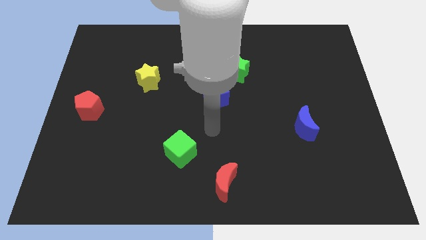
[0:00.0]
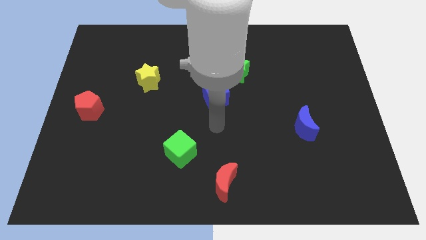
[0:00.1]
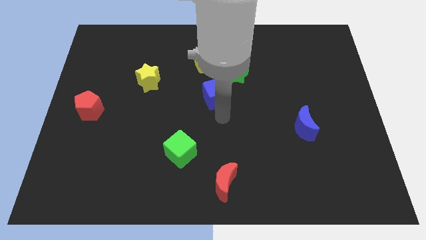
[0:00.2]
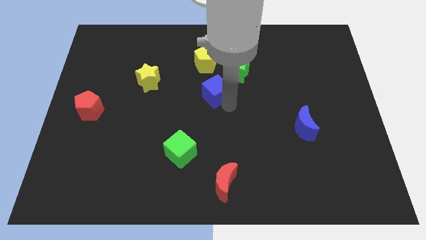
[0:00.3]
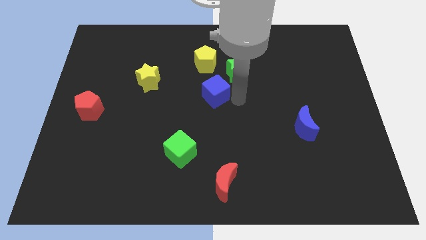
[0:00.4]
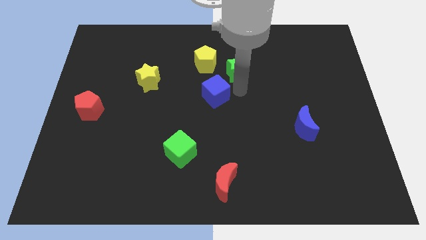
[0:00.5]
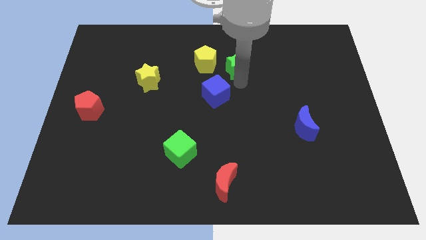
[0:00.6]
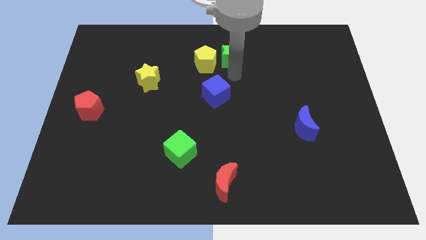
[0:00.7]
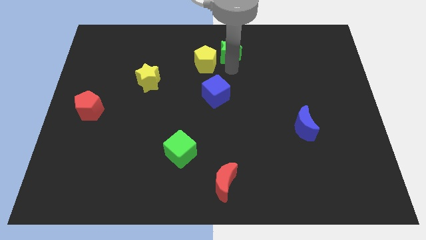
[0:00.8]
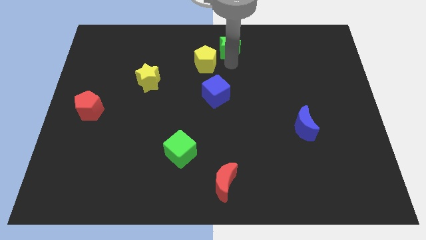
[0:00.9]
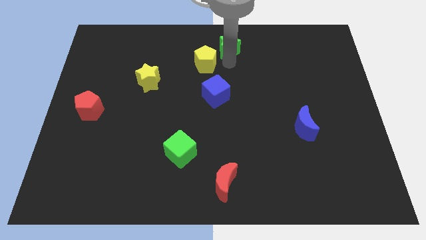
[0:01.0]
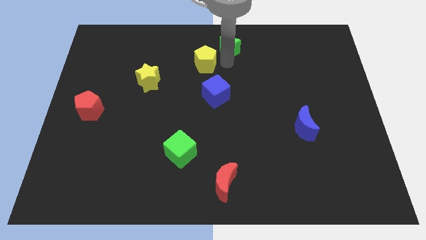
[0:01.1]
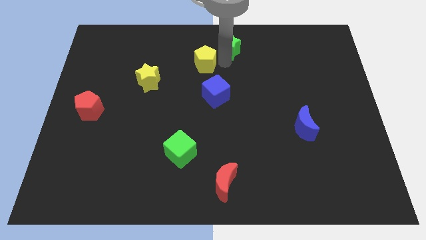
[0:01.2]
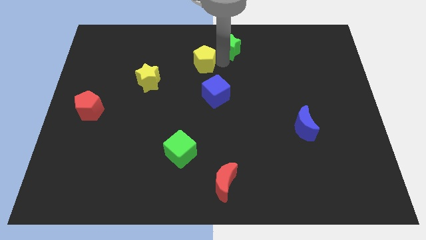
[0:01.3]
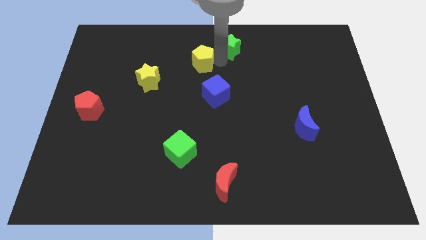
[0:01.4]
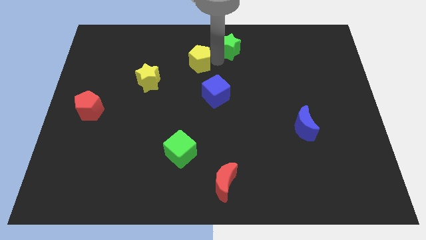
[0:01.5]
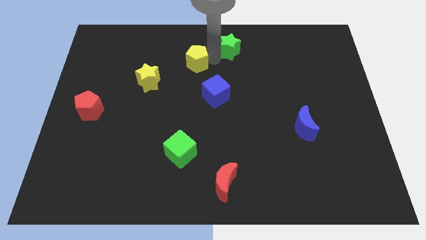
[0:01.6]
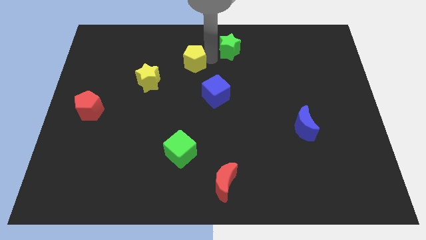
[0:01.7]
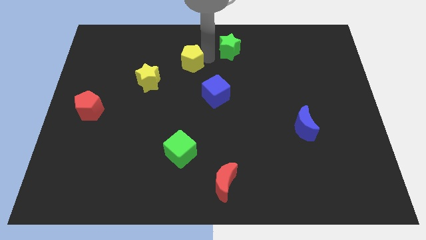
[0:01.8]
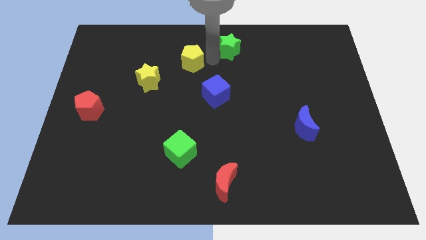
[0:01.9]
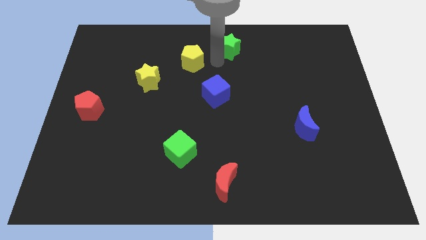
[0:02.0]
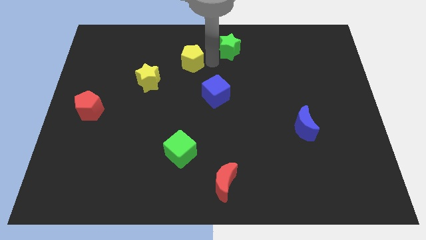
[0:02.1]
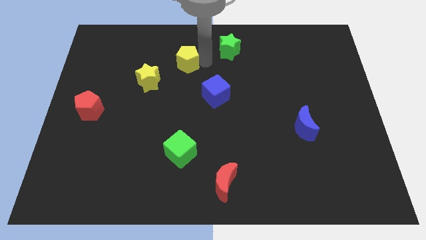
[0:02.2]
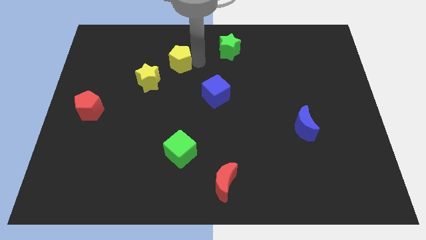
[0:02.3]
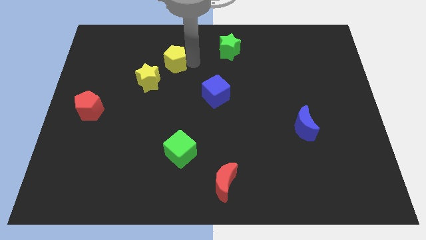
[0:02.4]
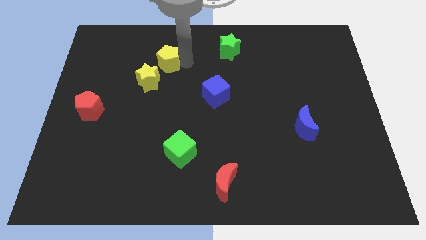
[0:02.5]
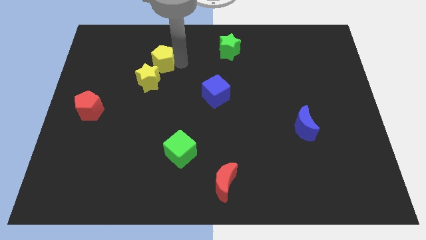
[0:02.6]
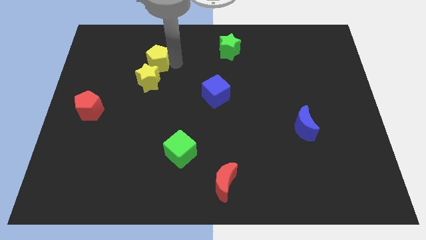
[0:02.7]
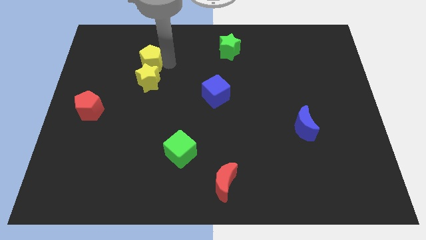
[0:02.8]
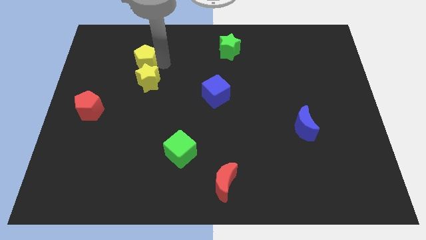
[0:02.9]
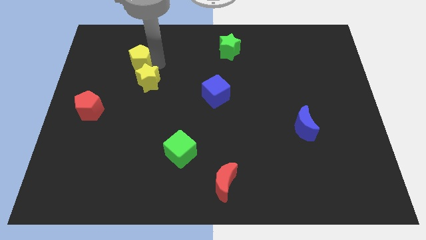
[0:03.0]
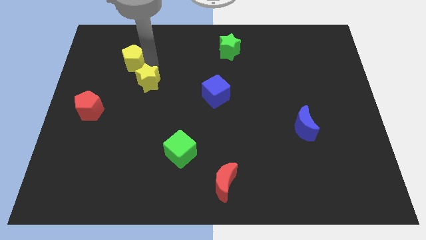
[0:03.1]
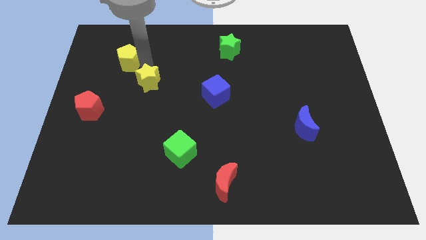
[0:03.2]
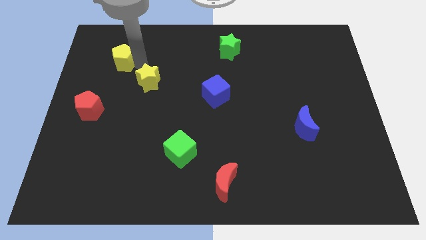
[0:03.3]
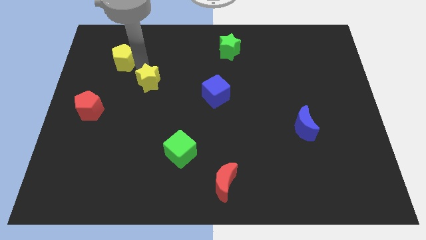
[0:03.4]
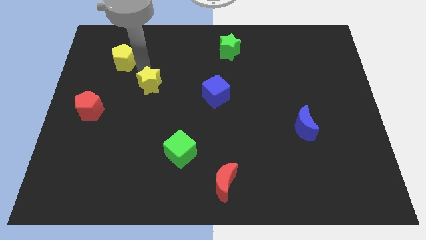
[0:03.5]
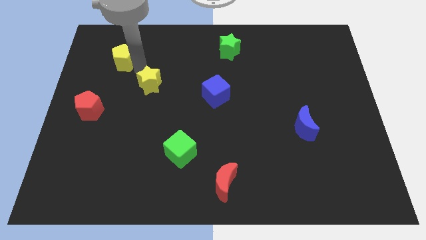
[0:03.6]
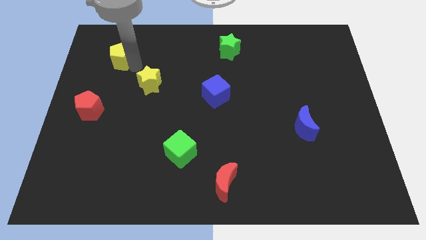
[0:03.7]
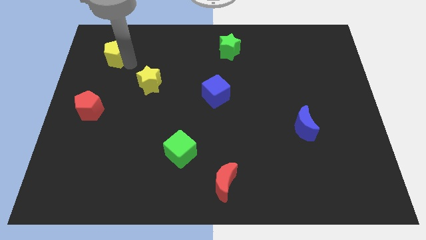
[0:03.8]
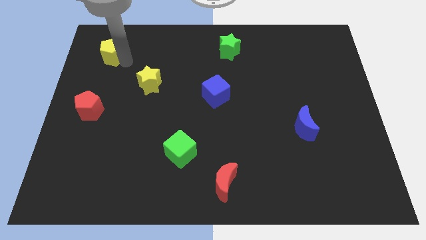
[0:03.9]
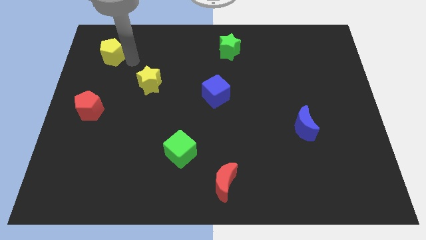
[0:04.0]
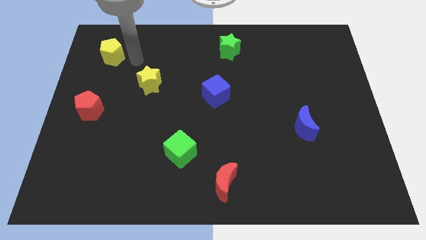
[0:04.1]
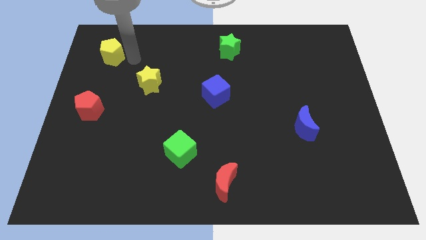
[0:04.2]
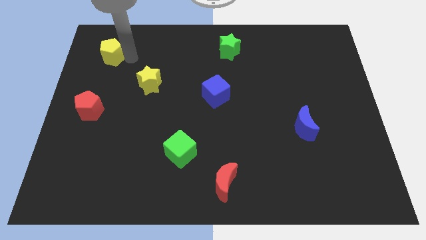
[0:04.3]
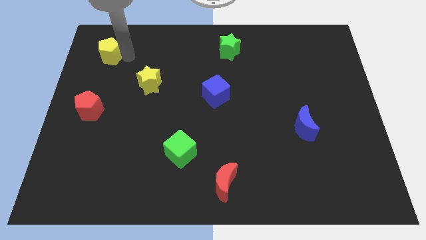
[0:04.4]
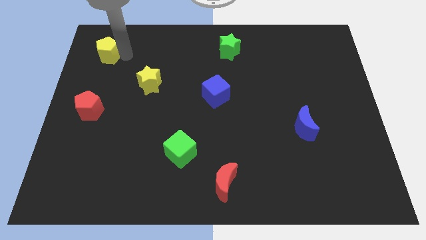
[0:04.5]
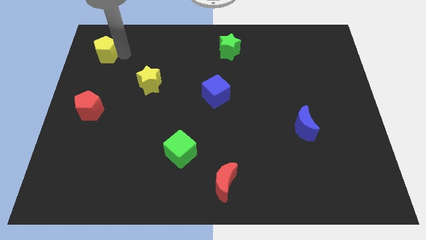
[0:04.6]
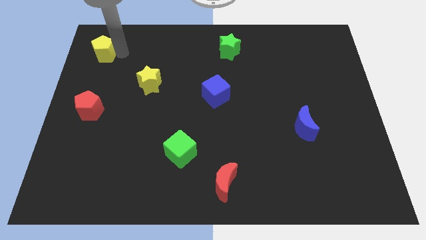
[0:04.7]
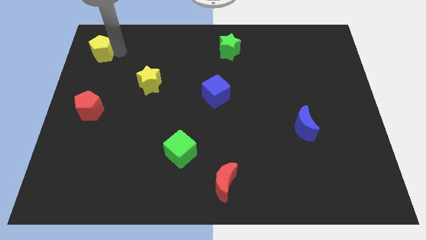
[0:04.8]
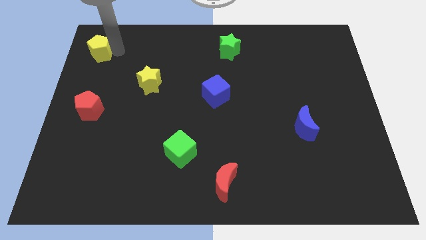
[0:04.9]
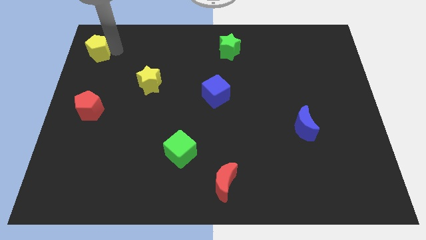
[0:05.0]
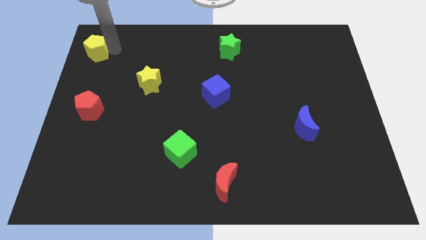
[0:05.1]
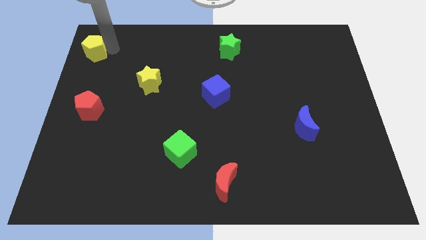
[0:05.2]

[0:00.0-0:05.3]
push the yellow pentagon to the top left of the board

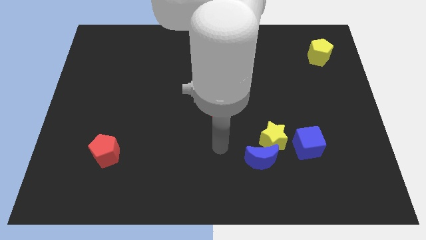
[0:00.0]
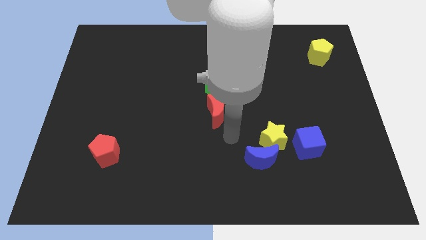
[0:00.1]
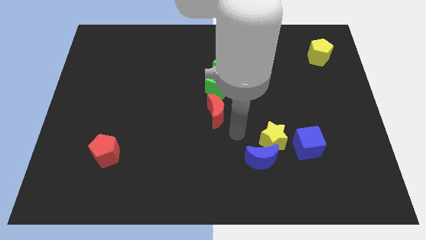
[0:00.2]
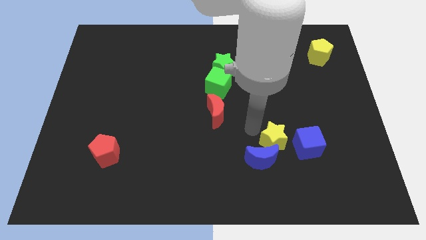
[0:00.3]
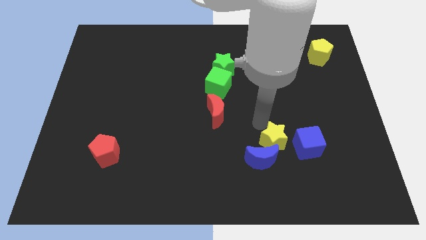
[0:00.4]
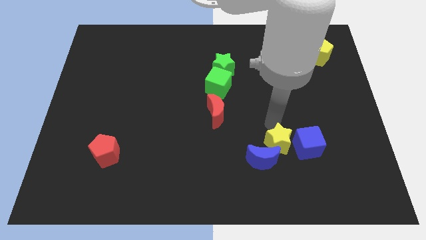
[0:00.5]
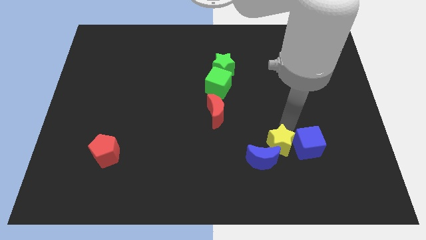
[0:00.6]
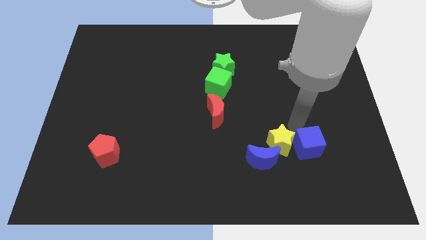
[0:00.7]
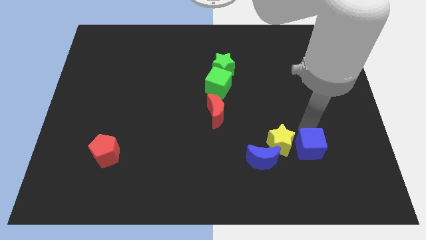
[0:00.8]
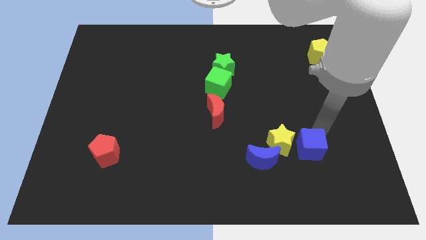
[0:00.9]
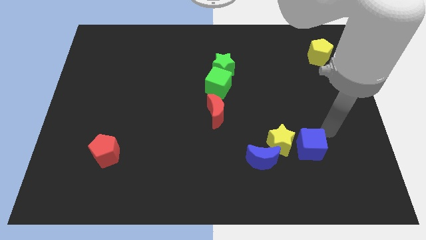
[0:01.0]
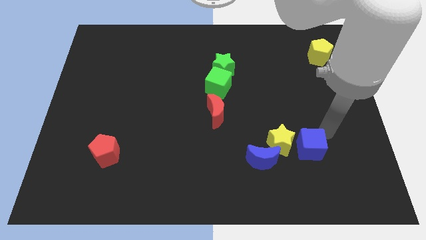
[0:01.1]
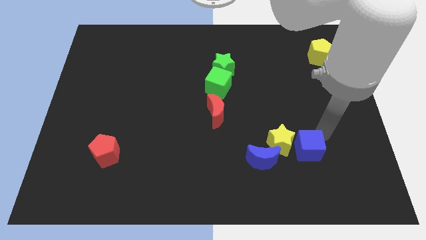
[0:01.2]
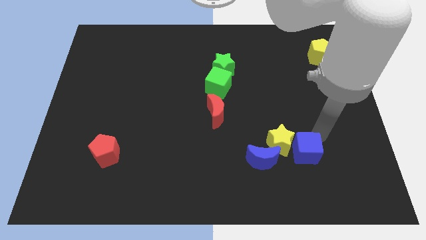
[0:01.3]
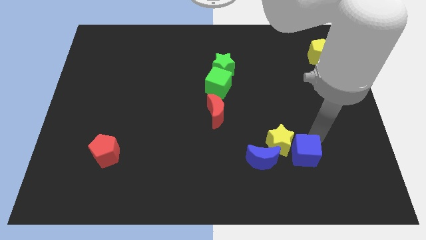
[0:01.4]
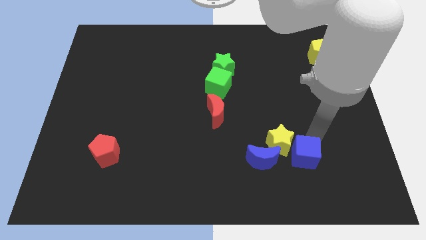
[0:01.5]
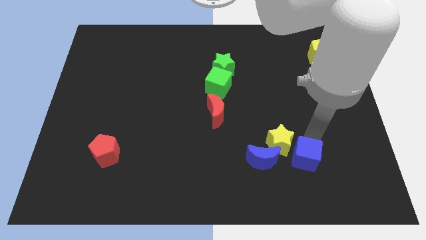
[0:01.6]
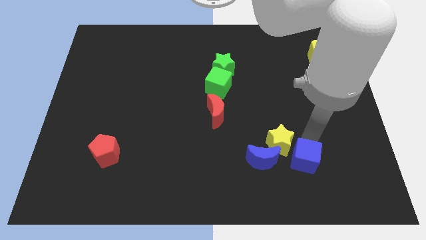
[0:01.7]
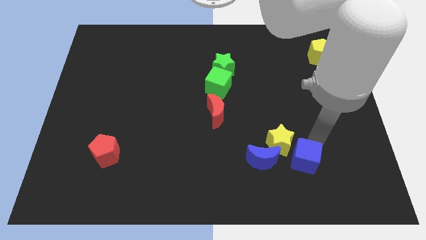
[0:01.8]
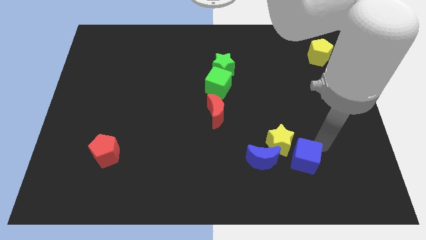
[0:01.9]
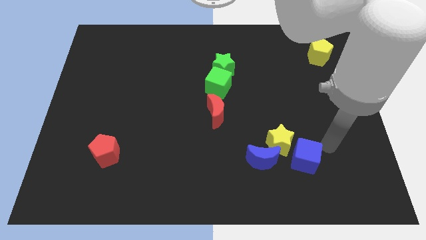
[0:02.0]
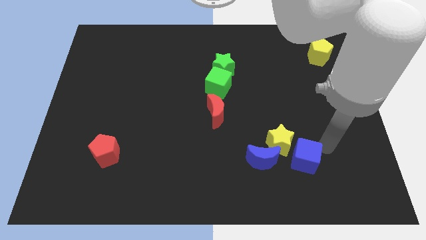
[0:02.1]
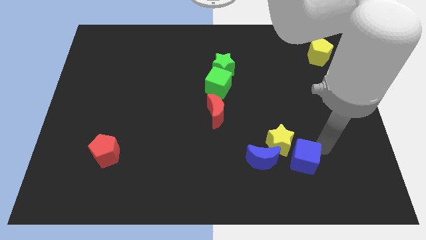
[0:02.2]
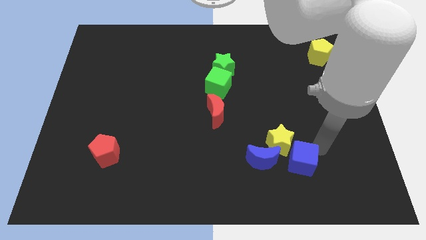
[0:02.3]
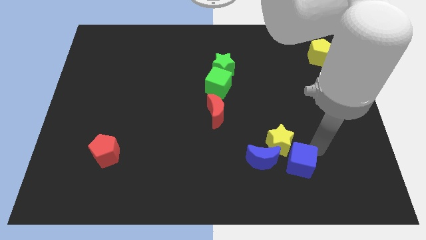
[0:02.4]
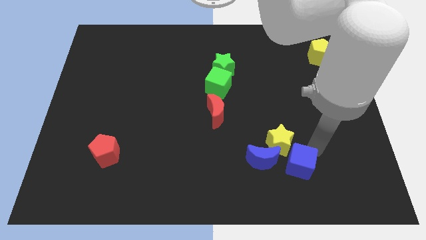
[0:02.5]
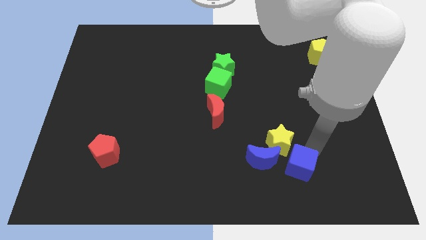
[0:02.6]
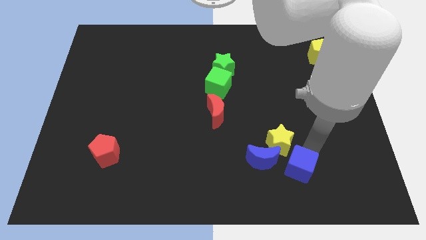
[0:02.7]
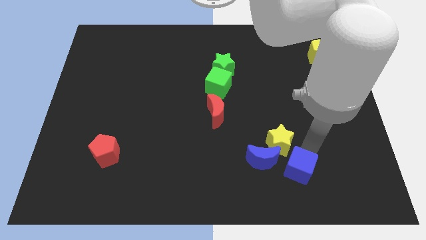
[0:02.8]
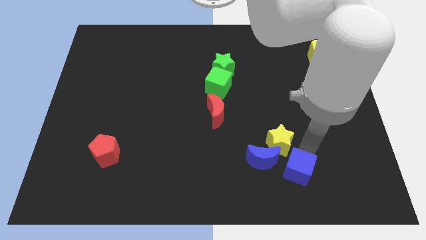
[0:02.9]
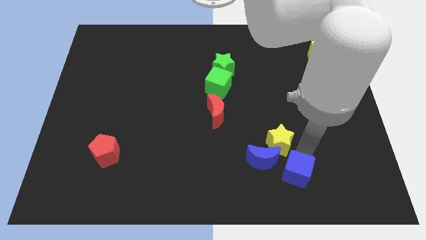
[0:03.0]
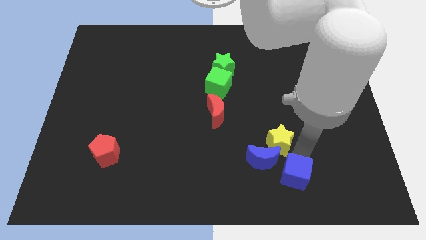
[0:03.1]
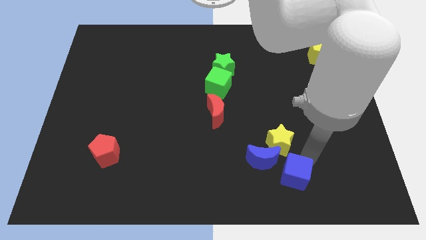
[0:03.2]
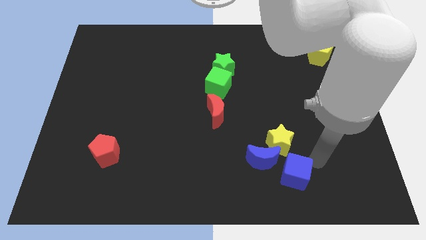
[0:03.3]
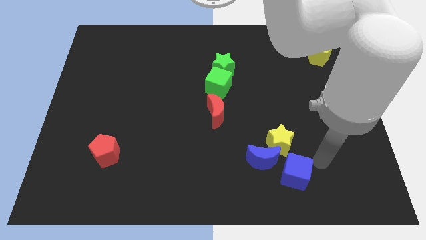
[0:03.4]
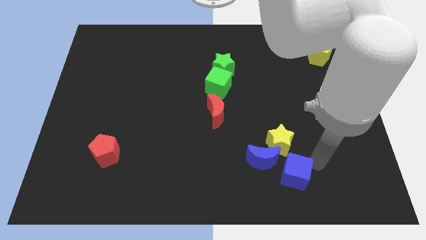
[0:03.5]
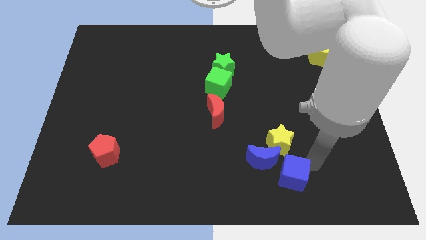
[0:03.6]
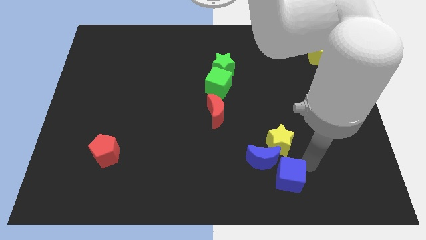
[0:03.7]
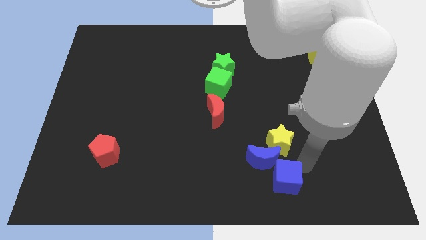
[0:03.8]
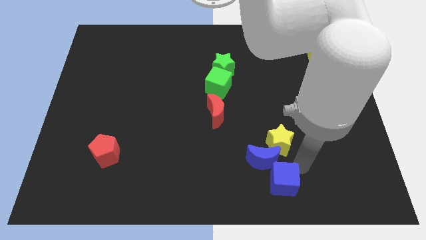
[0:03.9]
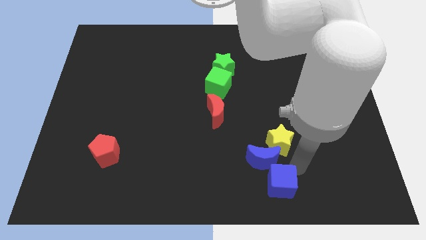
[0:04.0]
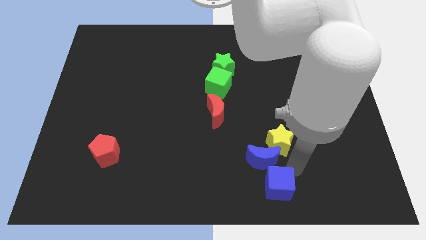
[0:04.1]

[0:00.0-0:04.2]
push the blue cube to the bottom side
